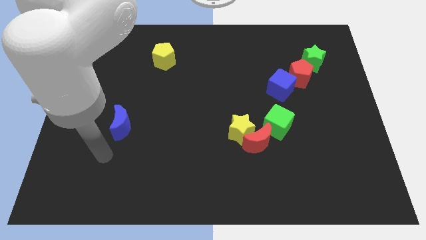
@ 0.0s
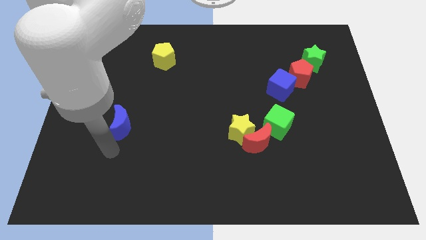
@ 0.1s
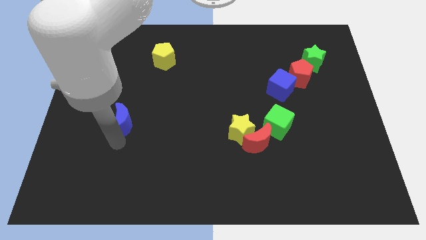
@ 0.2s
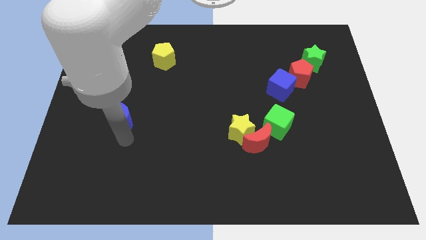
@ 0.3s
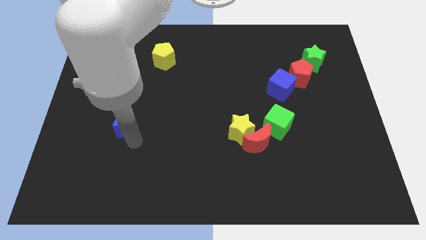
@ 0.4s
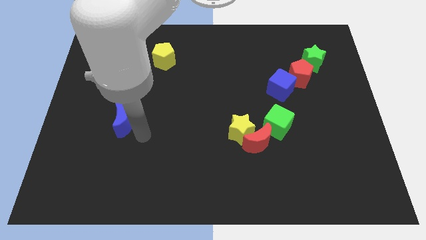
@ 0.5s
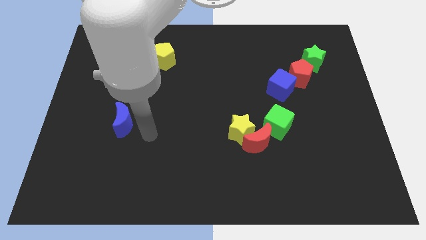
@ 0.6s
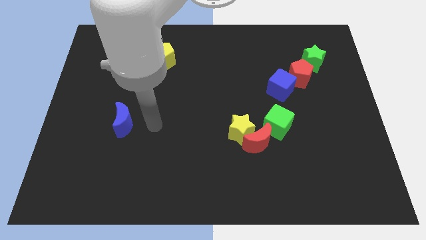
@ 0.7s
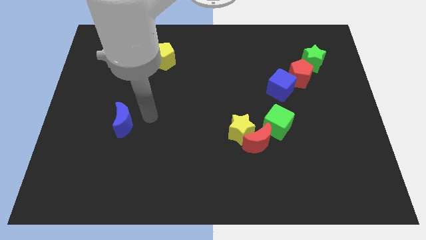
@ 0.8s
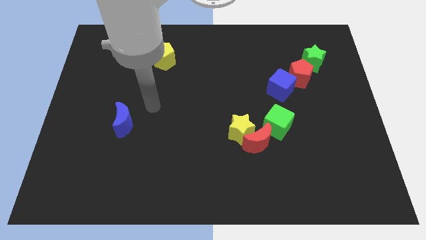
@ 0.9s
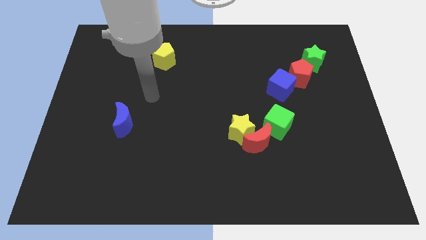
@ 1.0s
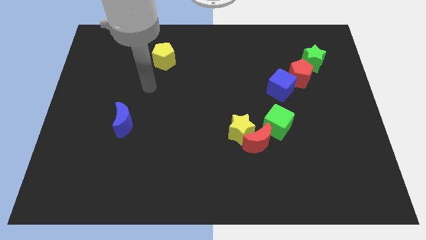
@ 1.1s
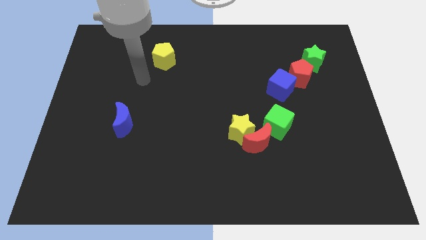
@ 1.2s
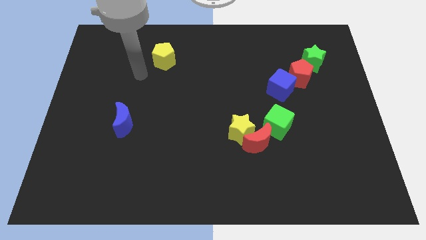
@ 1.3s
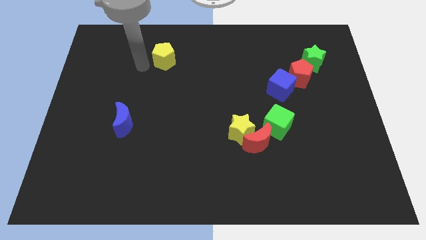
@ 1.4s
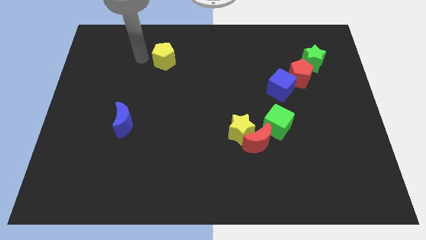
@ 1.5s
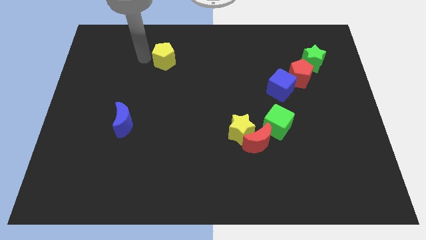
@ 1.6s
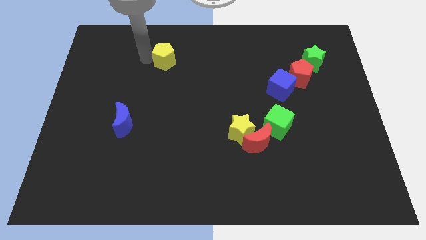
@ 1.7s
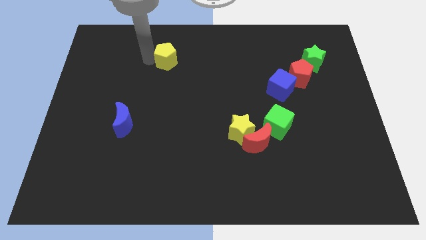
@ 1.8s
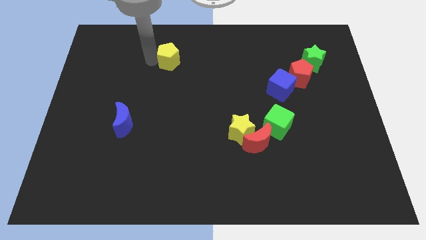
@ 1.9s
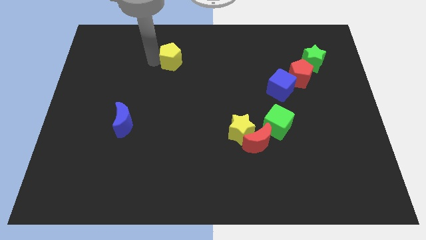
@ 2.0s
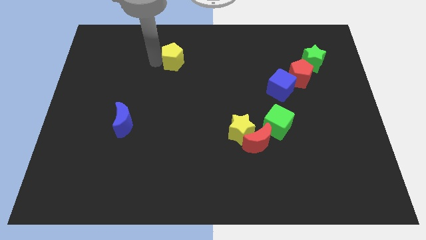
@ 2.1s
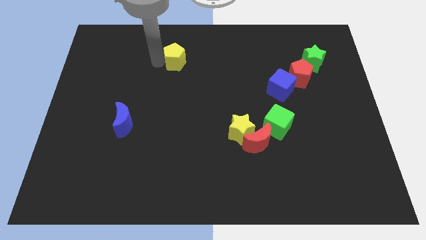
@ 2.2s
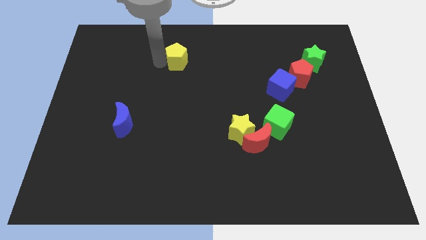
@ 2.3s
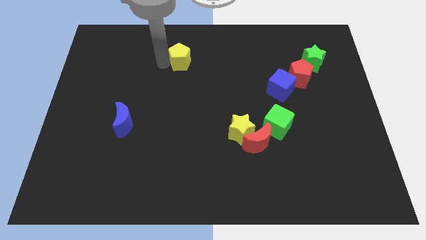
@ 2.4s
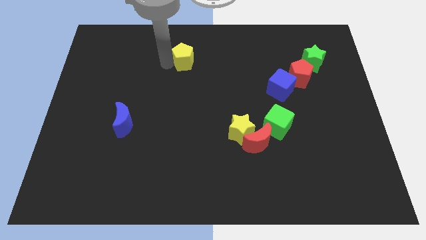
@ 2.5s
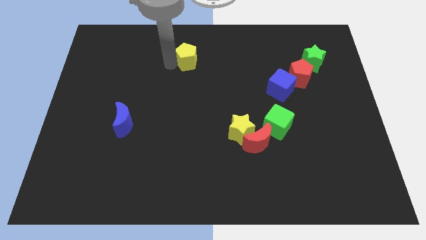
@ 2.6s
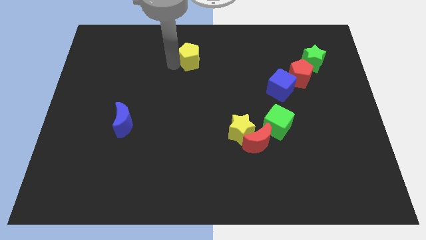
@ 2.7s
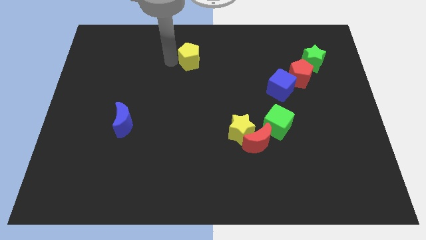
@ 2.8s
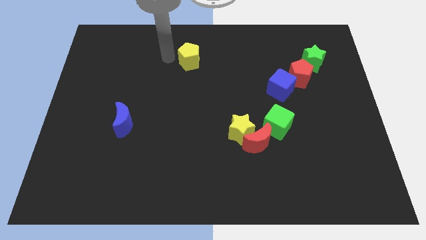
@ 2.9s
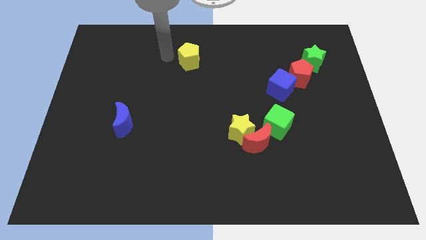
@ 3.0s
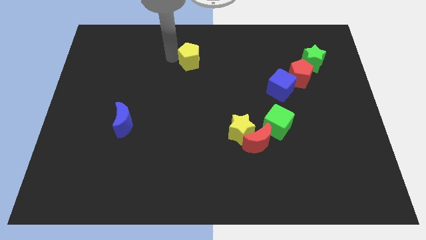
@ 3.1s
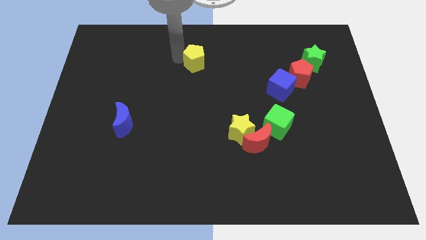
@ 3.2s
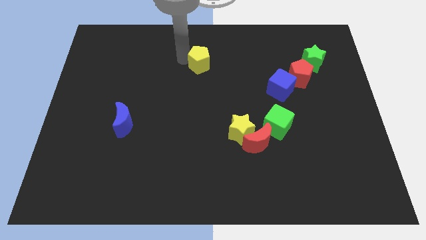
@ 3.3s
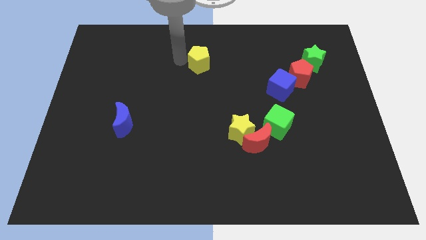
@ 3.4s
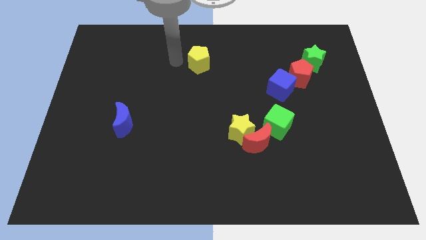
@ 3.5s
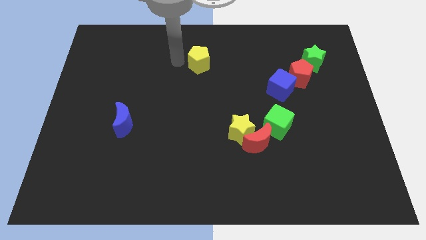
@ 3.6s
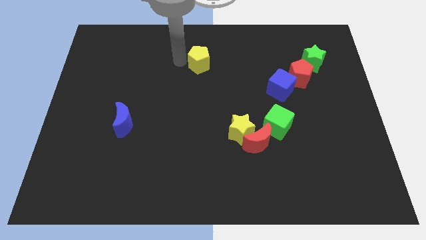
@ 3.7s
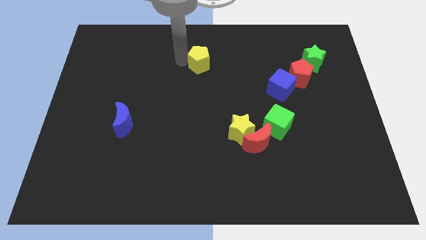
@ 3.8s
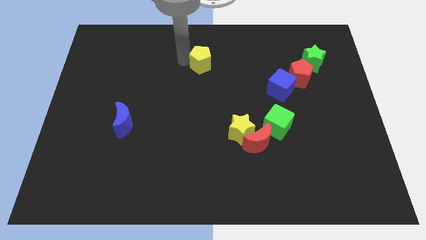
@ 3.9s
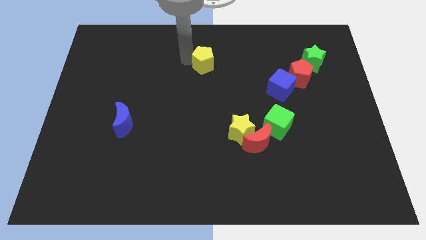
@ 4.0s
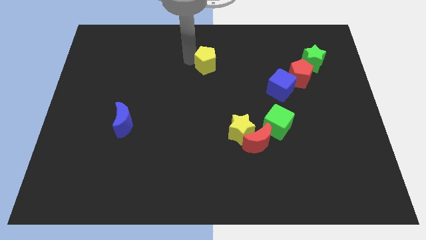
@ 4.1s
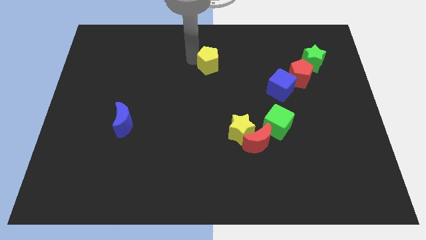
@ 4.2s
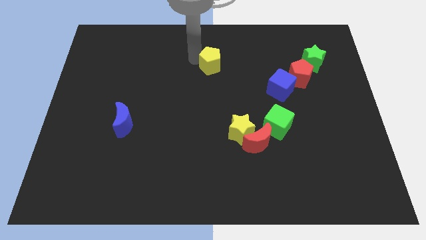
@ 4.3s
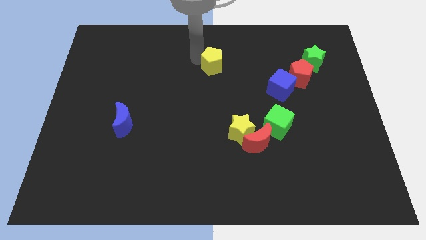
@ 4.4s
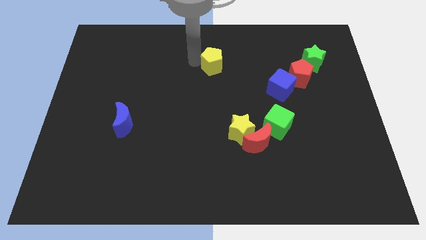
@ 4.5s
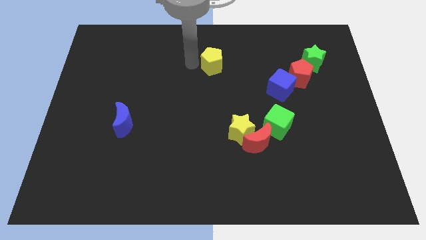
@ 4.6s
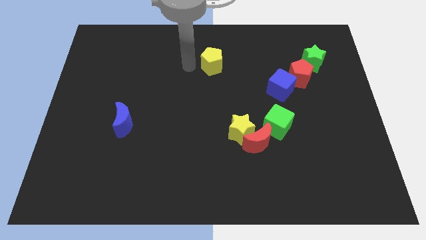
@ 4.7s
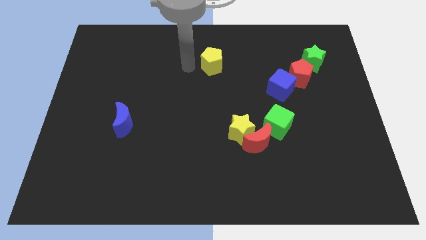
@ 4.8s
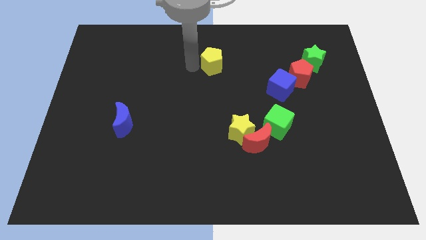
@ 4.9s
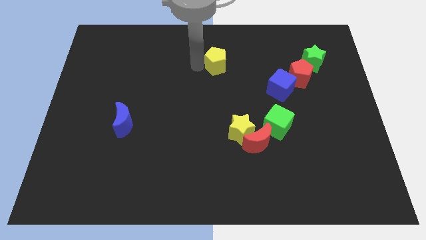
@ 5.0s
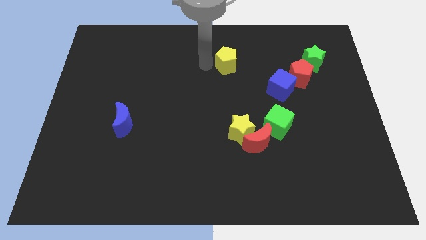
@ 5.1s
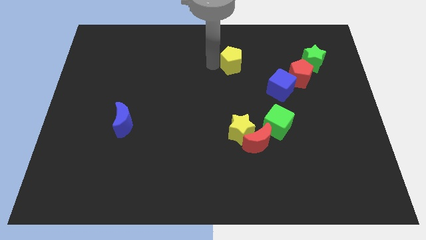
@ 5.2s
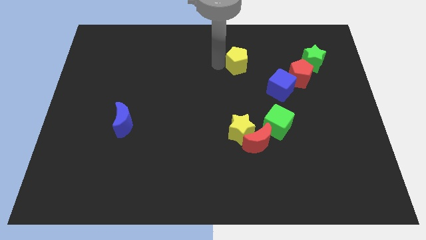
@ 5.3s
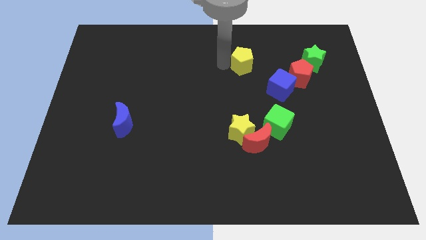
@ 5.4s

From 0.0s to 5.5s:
push the yellow pentagon right

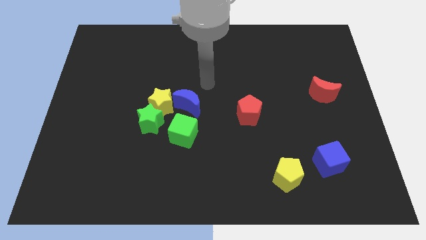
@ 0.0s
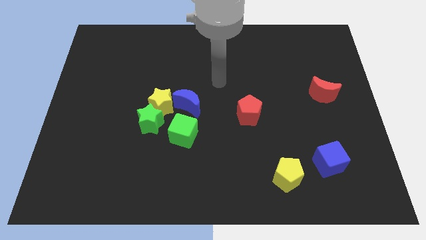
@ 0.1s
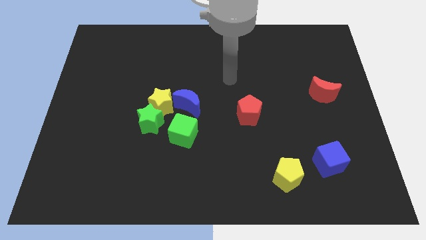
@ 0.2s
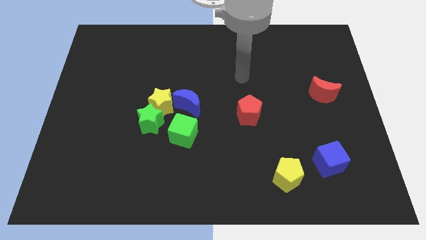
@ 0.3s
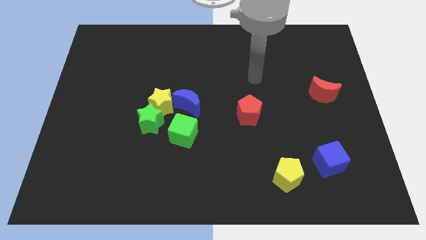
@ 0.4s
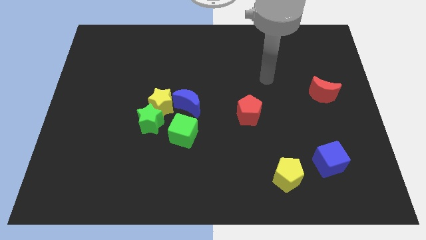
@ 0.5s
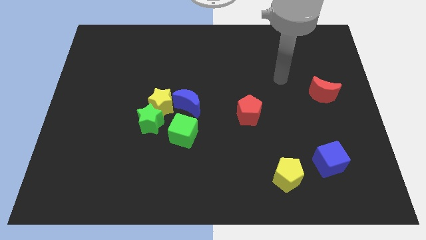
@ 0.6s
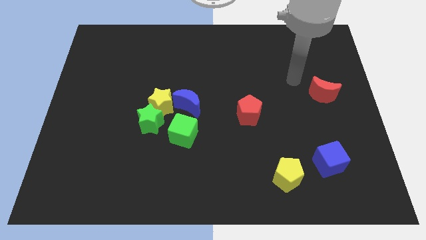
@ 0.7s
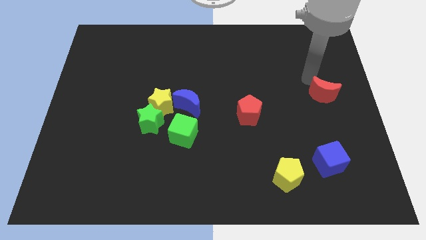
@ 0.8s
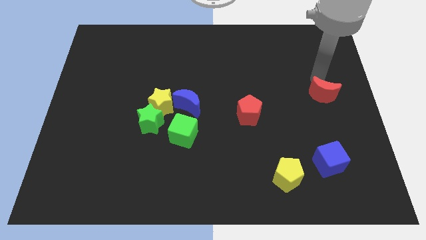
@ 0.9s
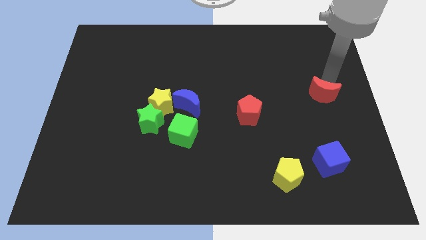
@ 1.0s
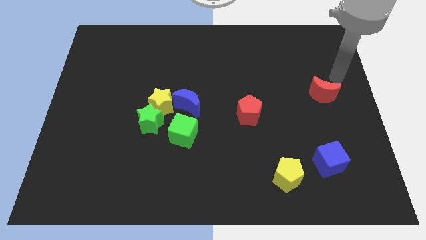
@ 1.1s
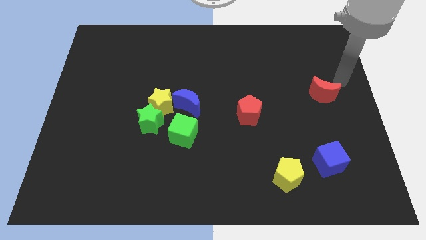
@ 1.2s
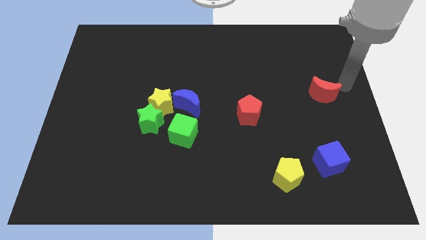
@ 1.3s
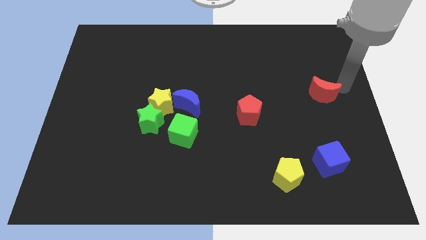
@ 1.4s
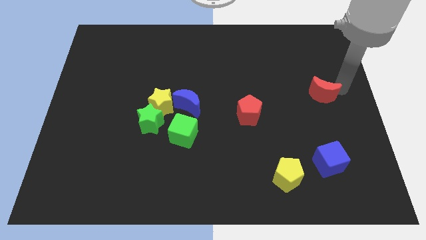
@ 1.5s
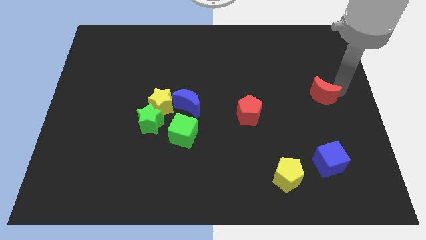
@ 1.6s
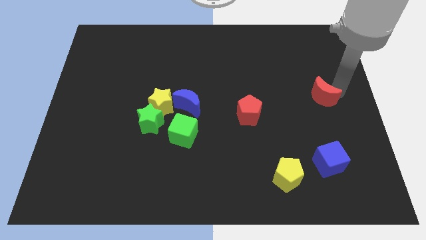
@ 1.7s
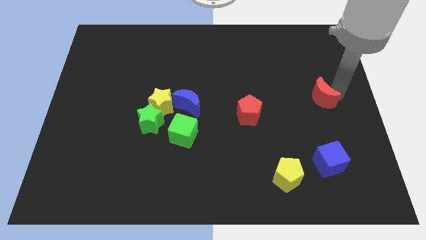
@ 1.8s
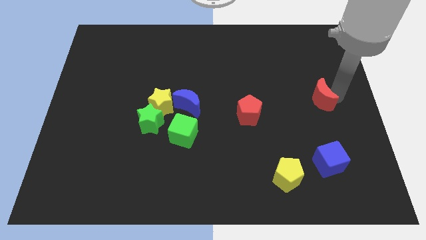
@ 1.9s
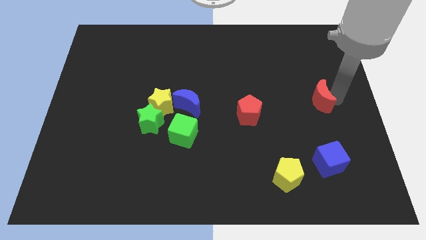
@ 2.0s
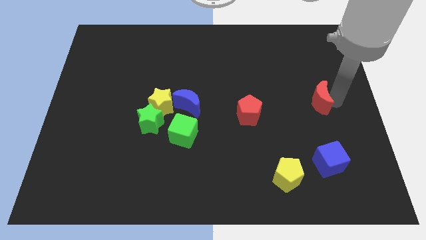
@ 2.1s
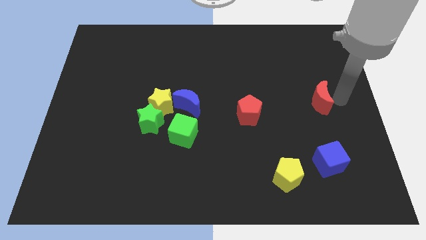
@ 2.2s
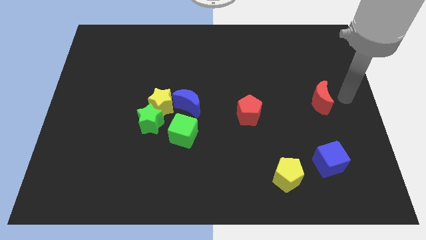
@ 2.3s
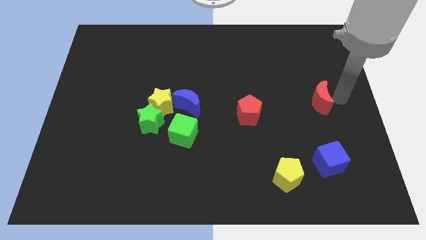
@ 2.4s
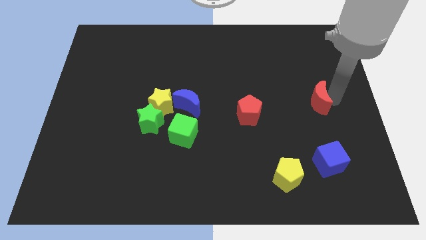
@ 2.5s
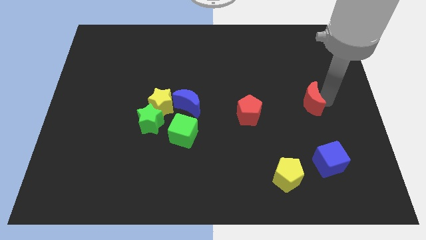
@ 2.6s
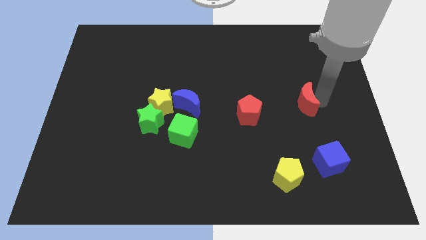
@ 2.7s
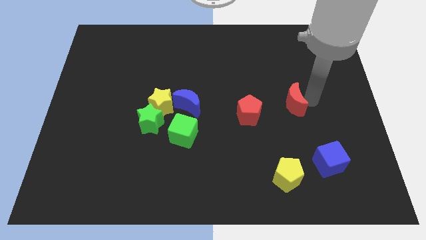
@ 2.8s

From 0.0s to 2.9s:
slightly push the red moon down and then to the left
